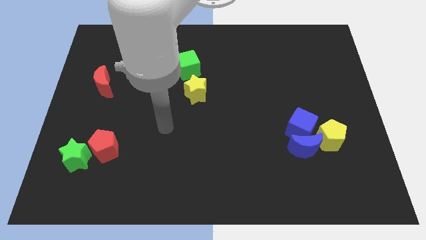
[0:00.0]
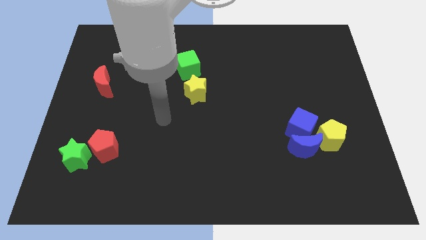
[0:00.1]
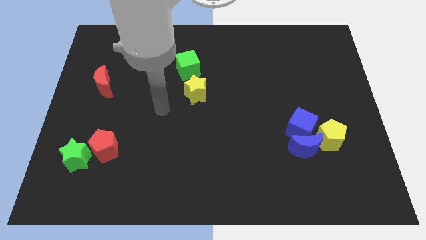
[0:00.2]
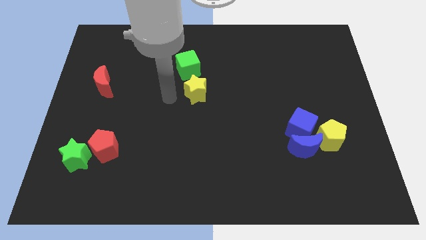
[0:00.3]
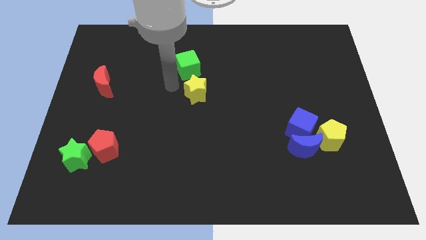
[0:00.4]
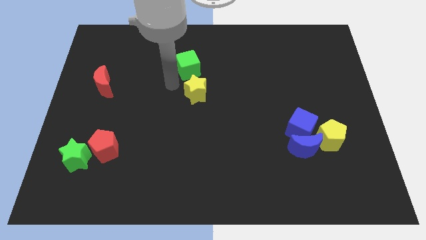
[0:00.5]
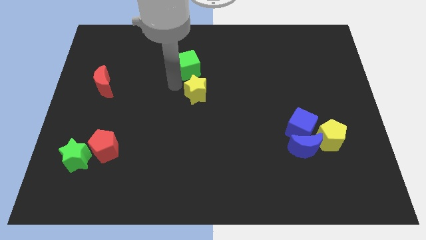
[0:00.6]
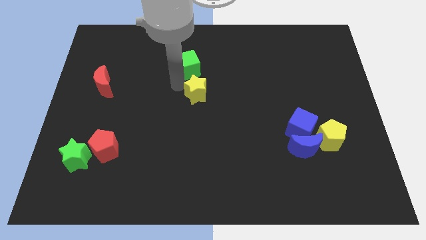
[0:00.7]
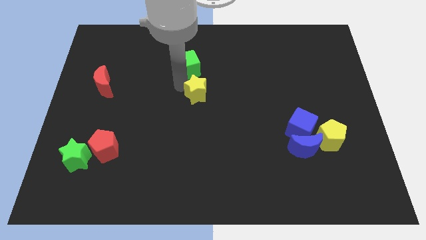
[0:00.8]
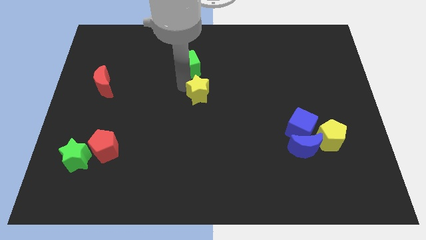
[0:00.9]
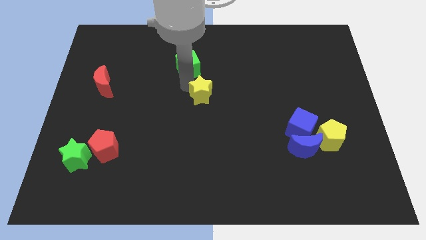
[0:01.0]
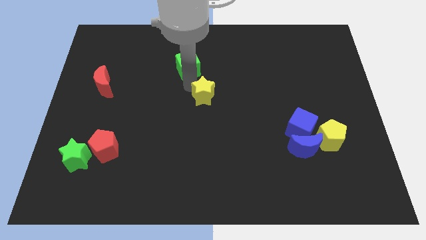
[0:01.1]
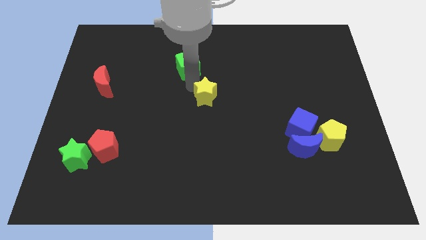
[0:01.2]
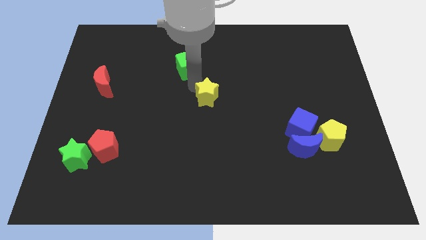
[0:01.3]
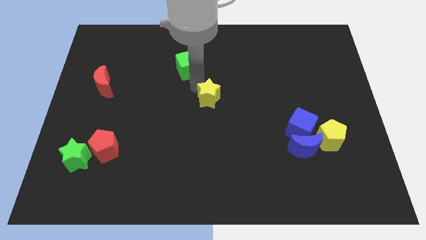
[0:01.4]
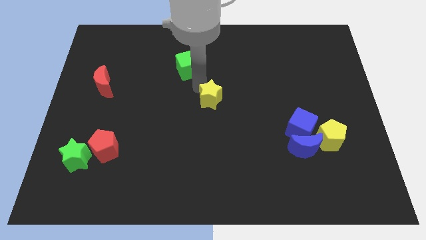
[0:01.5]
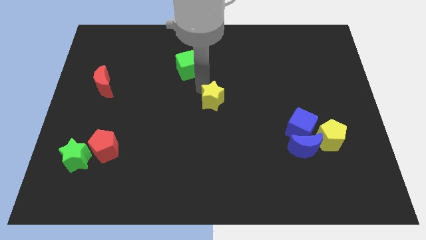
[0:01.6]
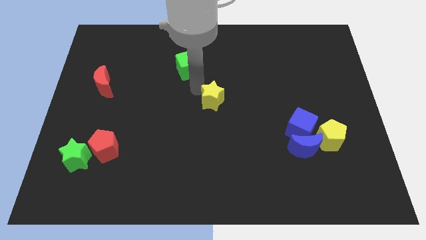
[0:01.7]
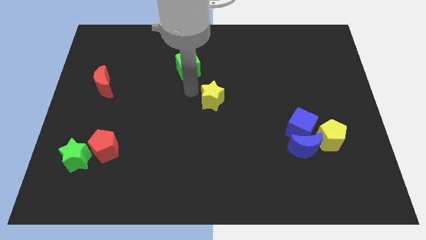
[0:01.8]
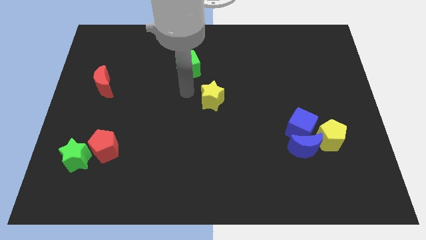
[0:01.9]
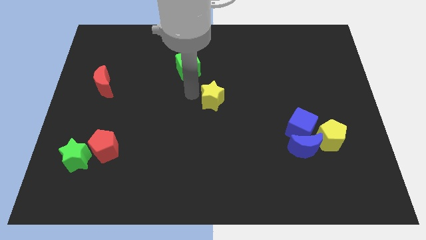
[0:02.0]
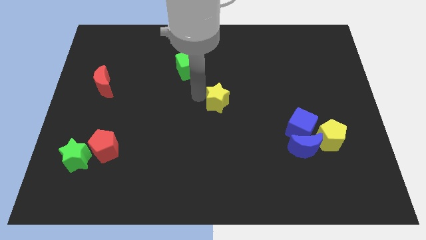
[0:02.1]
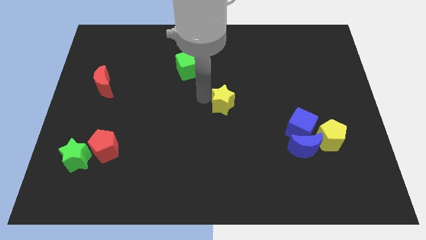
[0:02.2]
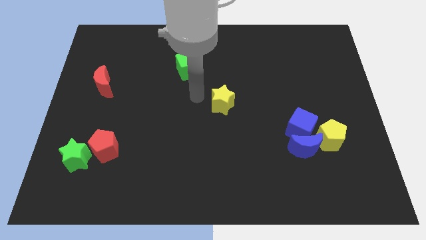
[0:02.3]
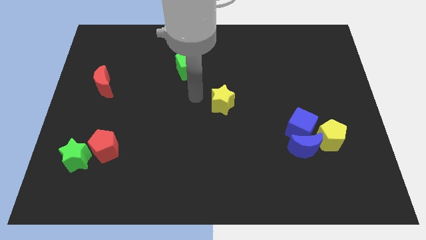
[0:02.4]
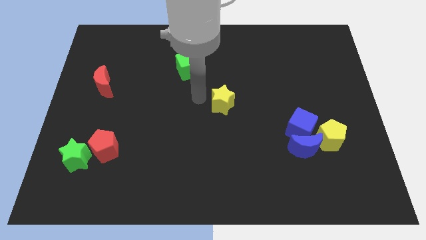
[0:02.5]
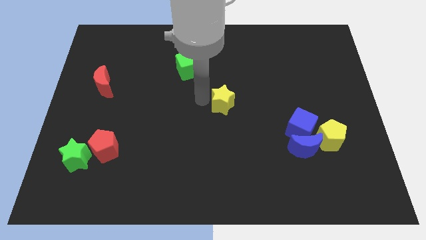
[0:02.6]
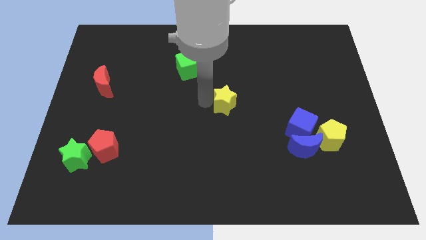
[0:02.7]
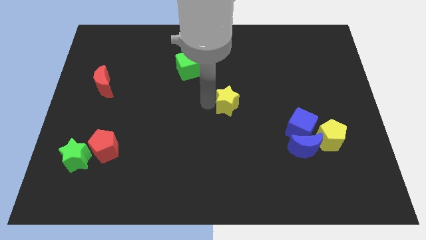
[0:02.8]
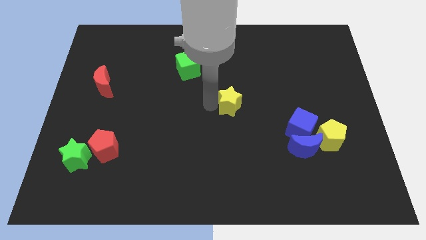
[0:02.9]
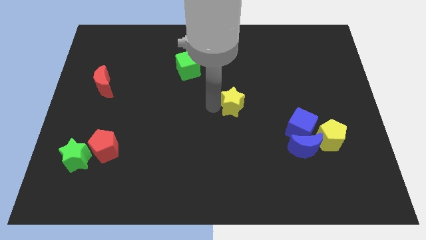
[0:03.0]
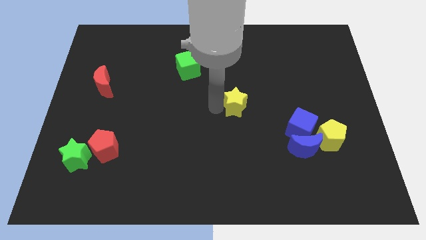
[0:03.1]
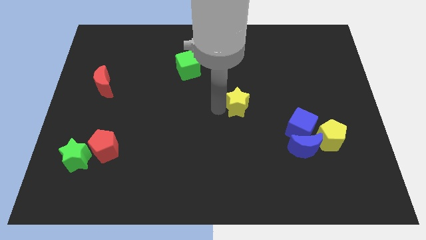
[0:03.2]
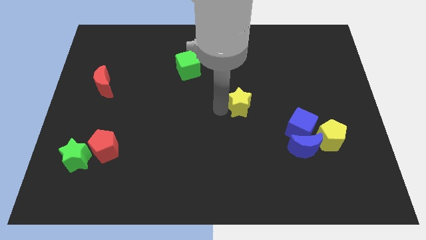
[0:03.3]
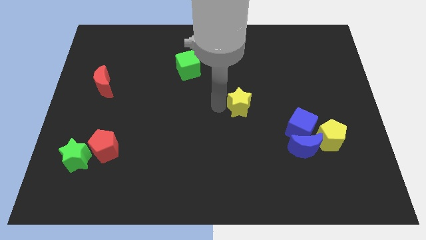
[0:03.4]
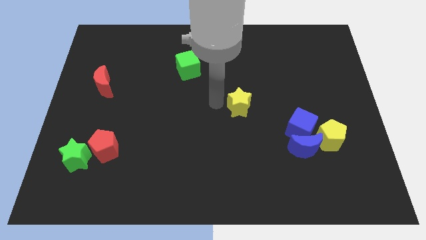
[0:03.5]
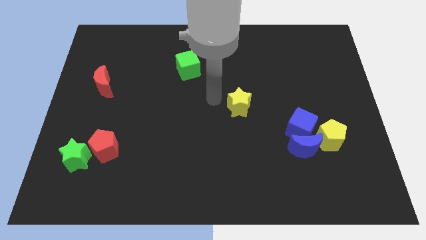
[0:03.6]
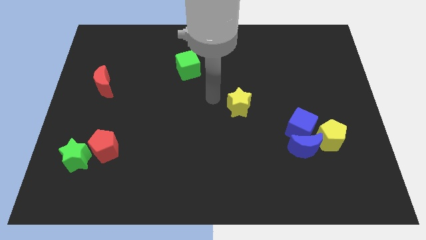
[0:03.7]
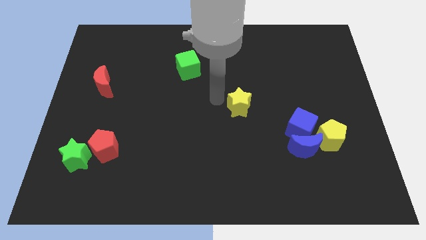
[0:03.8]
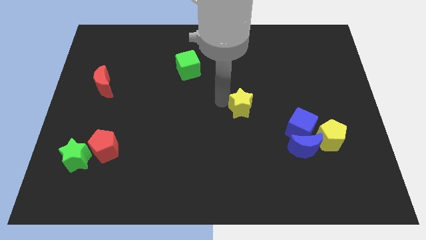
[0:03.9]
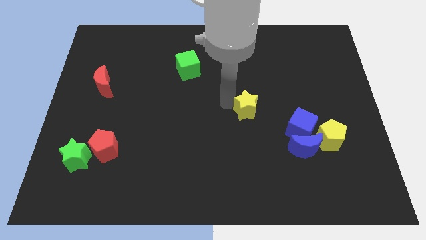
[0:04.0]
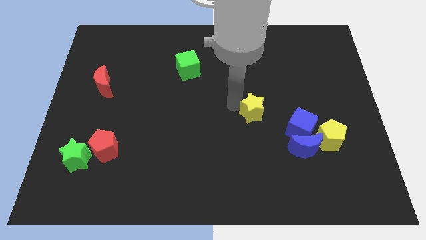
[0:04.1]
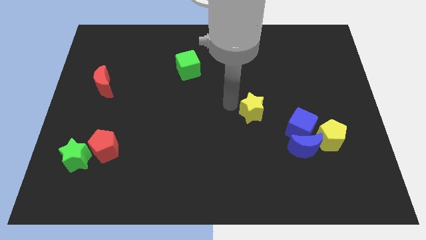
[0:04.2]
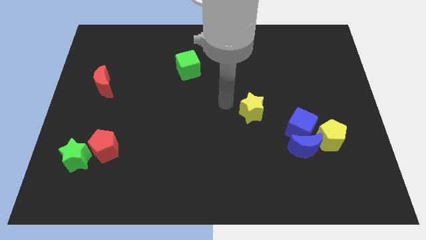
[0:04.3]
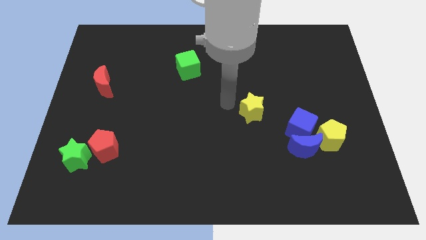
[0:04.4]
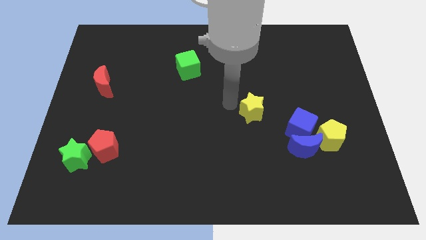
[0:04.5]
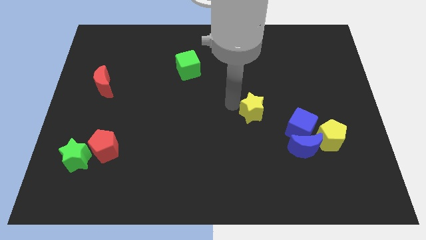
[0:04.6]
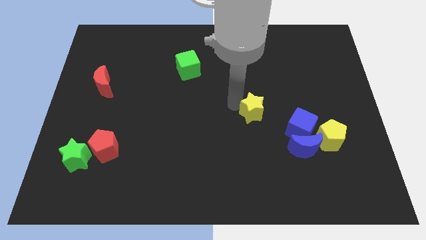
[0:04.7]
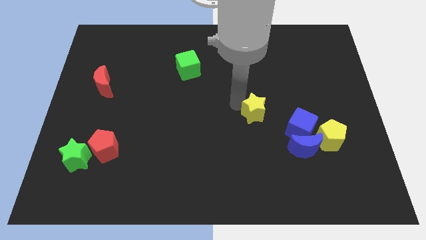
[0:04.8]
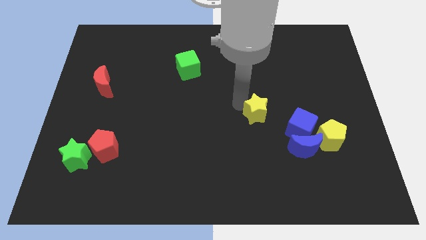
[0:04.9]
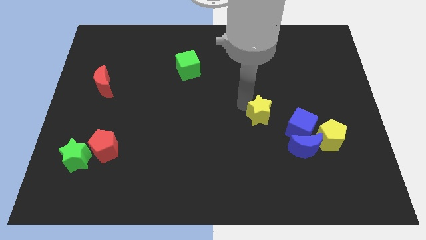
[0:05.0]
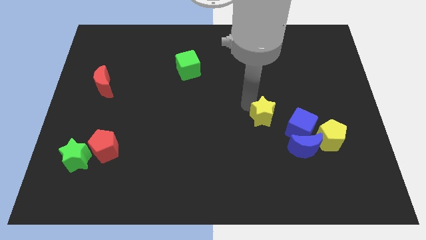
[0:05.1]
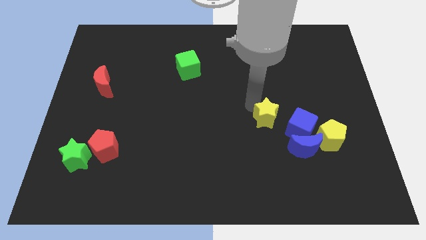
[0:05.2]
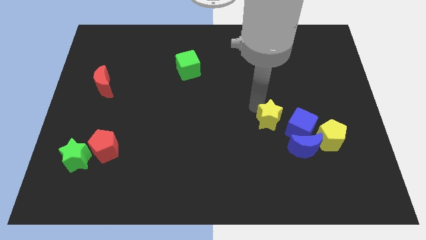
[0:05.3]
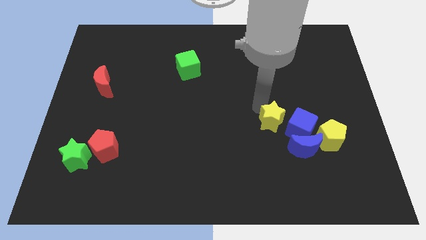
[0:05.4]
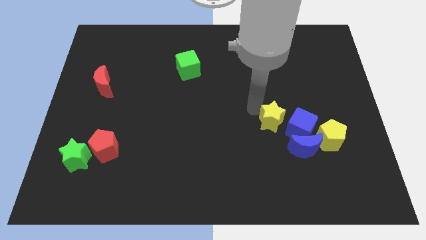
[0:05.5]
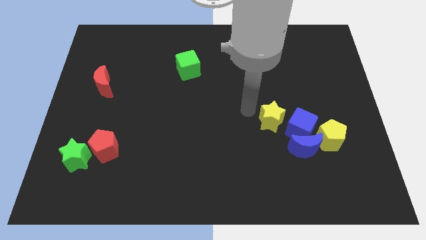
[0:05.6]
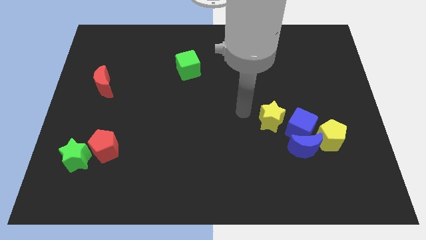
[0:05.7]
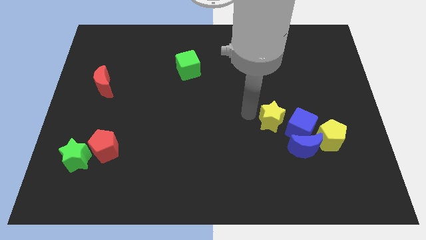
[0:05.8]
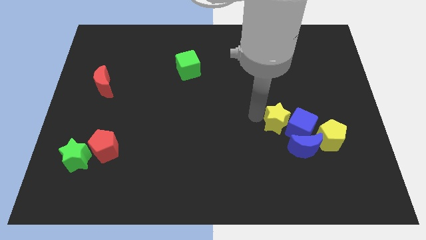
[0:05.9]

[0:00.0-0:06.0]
push the yellow star close to the blue cube
